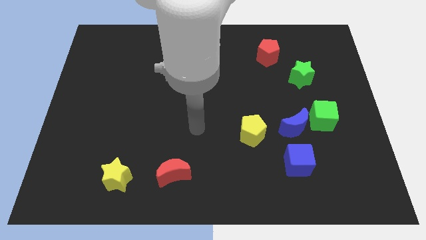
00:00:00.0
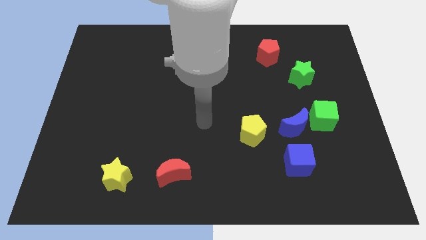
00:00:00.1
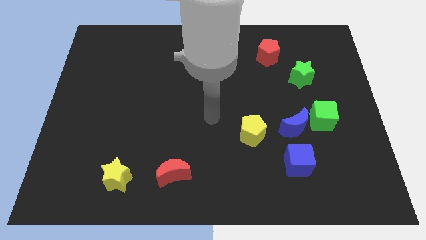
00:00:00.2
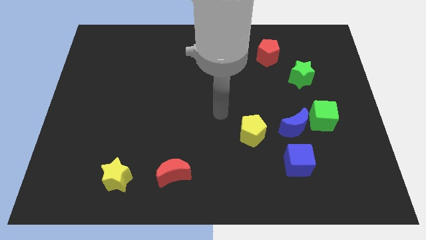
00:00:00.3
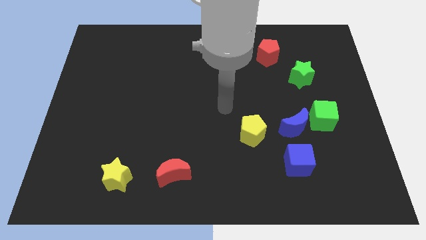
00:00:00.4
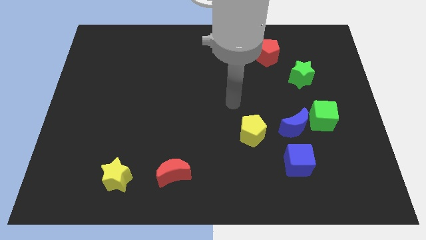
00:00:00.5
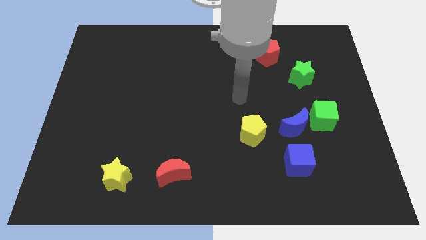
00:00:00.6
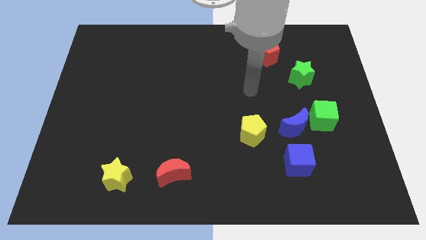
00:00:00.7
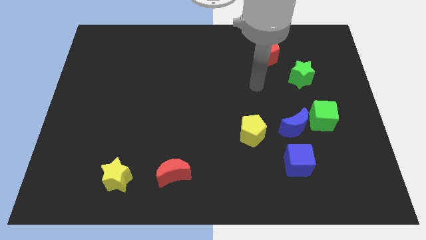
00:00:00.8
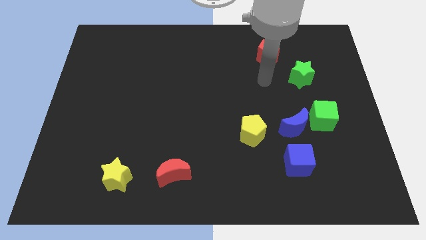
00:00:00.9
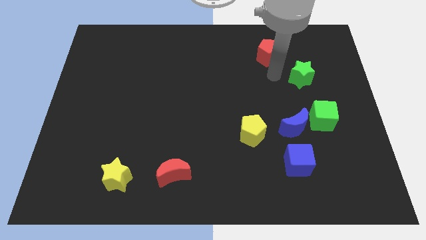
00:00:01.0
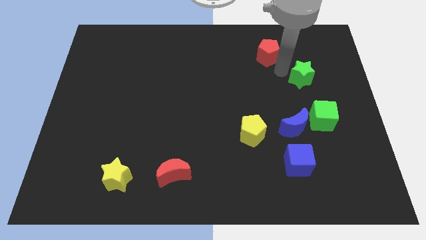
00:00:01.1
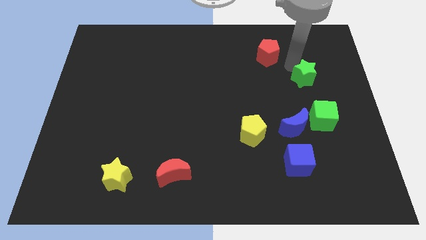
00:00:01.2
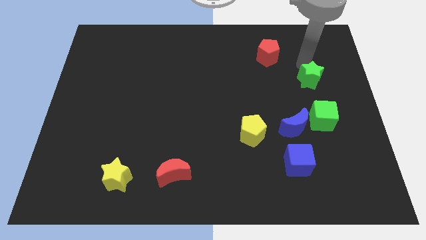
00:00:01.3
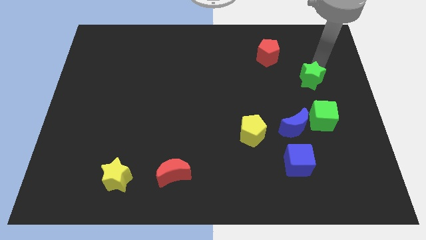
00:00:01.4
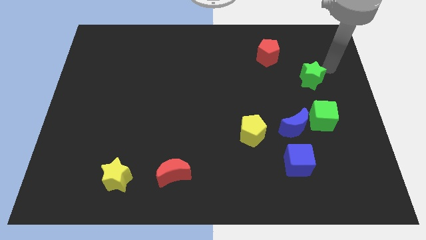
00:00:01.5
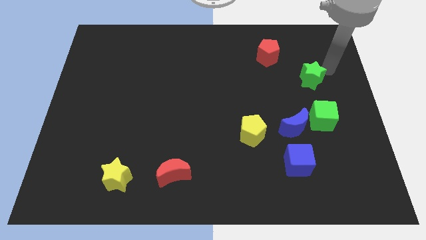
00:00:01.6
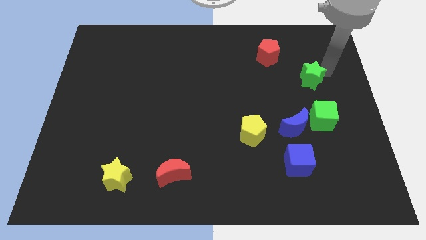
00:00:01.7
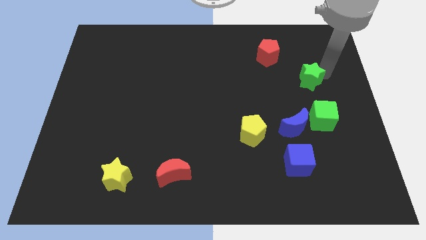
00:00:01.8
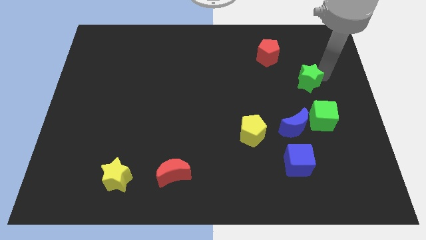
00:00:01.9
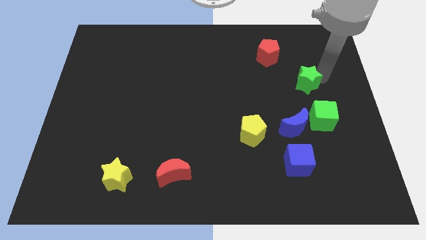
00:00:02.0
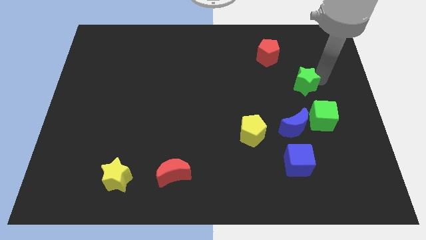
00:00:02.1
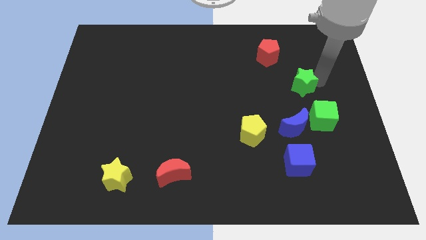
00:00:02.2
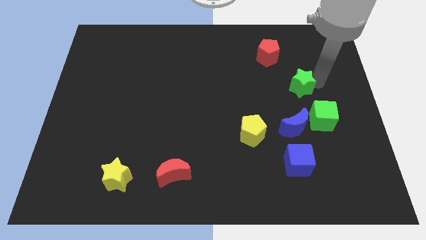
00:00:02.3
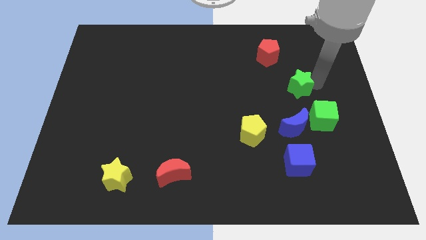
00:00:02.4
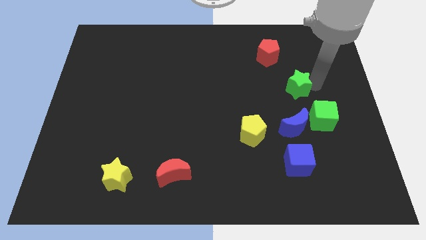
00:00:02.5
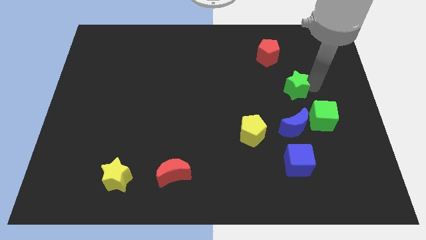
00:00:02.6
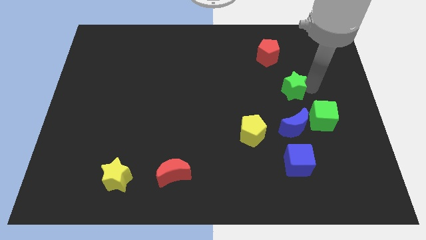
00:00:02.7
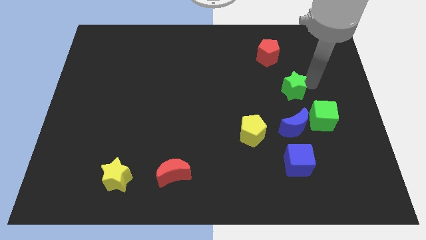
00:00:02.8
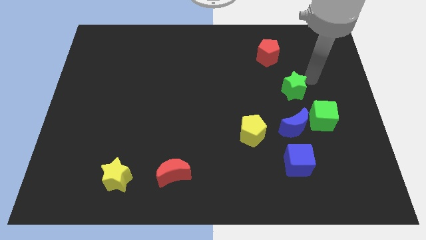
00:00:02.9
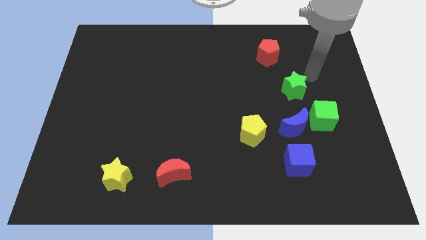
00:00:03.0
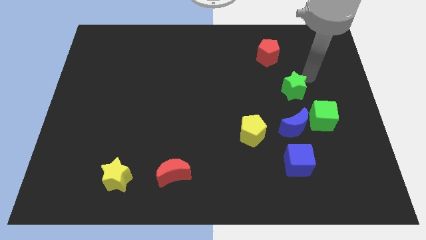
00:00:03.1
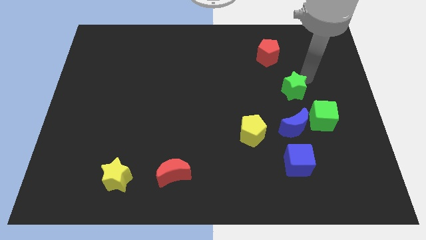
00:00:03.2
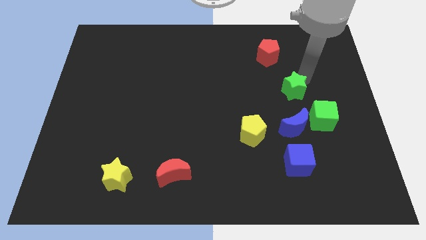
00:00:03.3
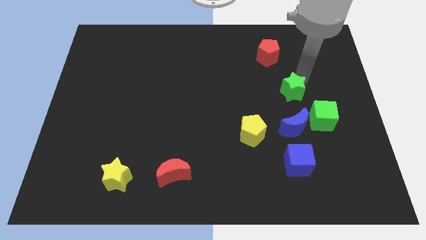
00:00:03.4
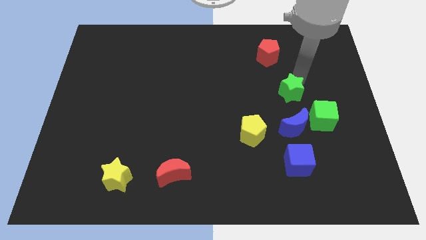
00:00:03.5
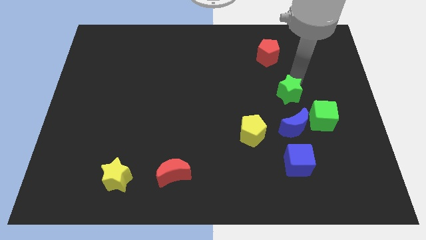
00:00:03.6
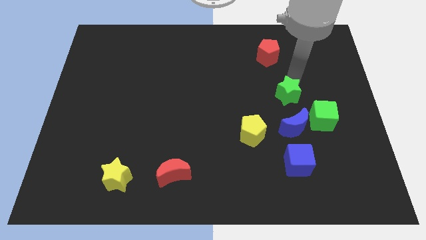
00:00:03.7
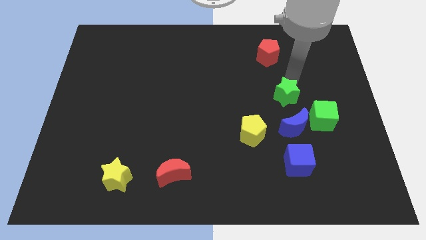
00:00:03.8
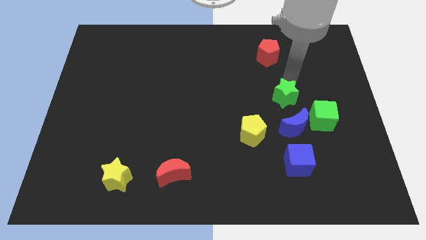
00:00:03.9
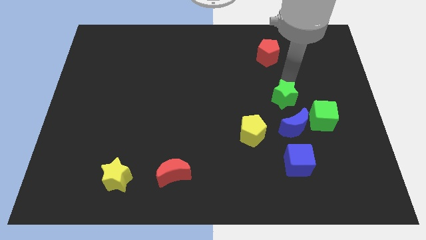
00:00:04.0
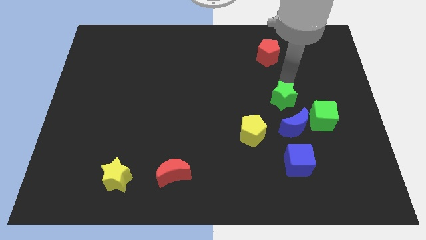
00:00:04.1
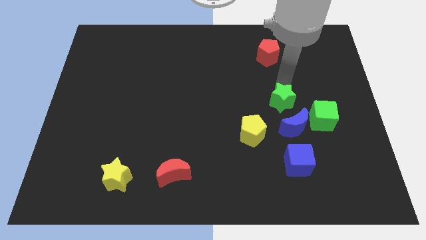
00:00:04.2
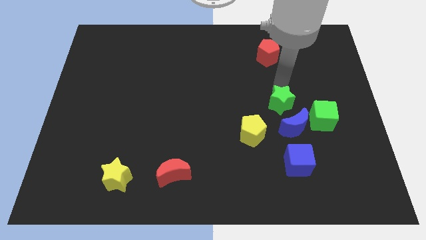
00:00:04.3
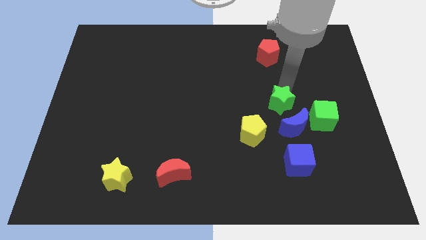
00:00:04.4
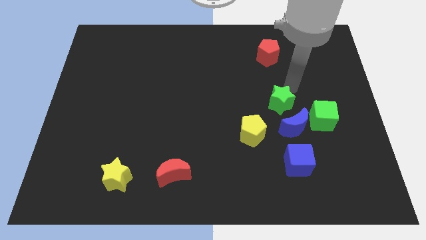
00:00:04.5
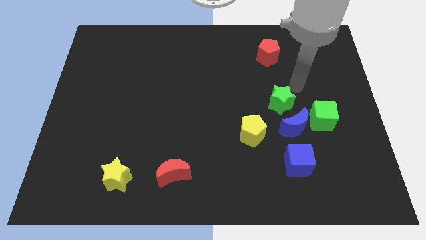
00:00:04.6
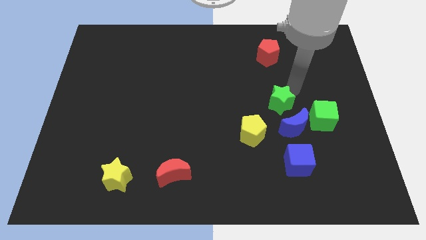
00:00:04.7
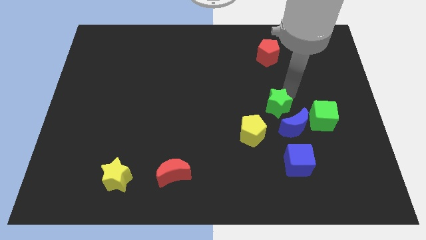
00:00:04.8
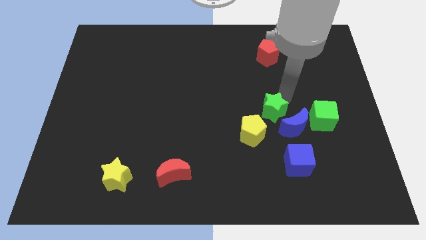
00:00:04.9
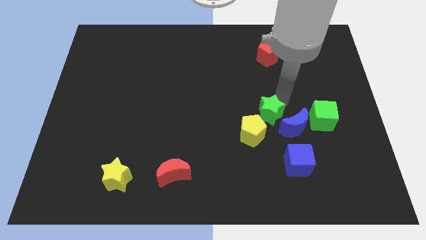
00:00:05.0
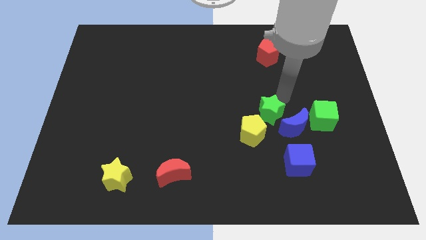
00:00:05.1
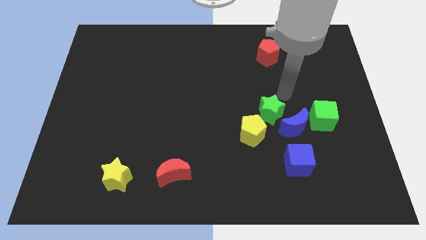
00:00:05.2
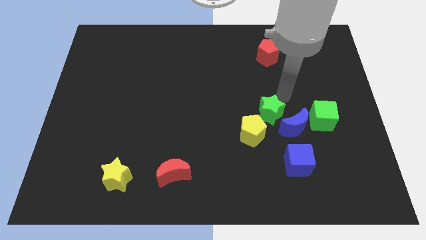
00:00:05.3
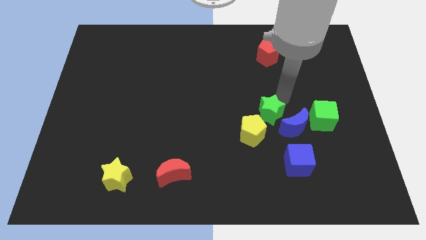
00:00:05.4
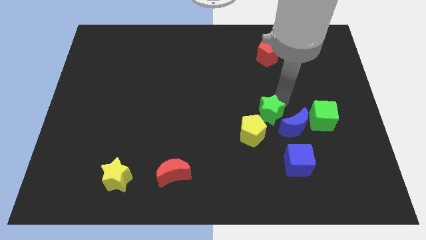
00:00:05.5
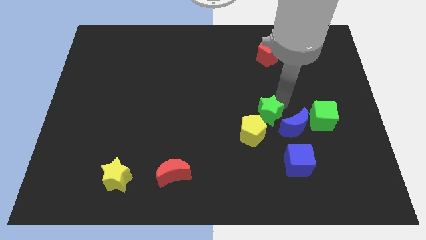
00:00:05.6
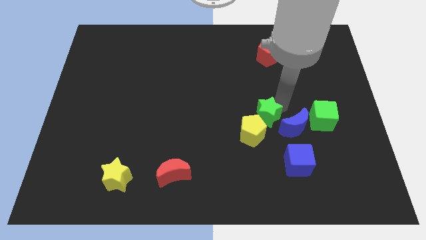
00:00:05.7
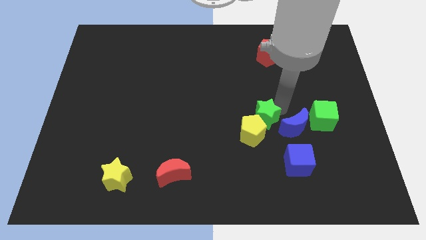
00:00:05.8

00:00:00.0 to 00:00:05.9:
move the green star close to the yellow pentagon
